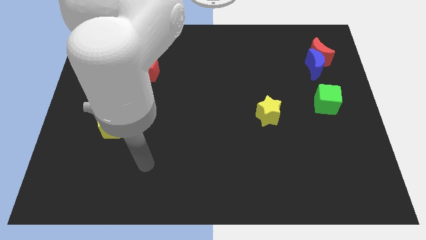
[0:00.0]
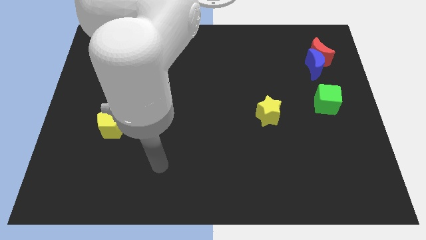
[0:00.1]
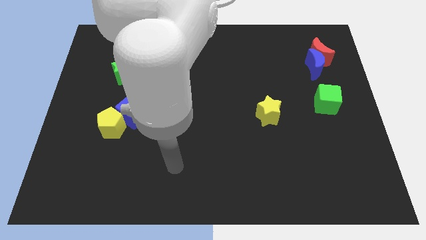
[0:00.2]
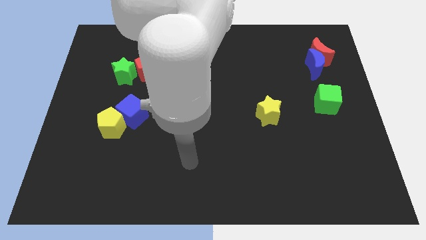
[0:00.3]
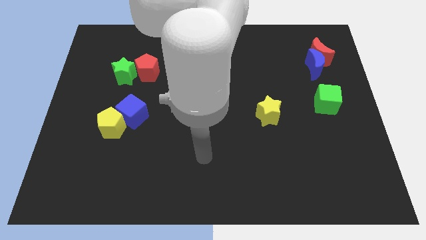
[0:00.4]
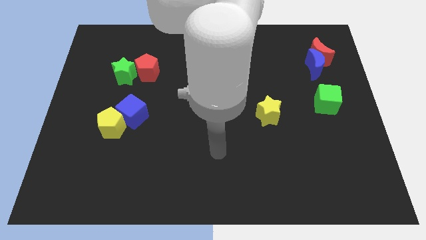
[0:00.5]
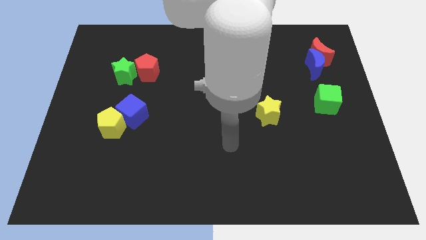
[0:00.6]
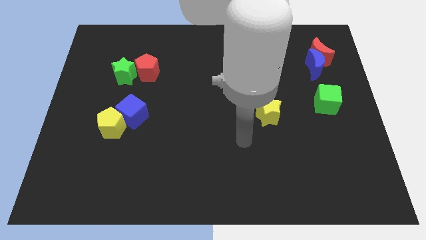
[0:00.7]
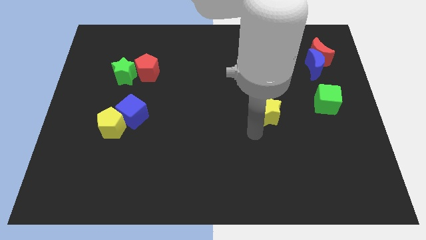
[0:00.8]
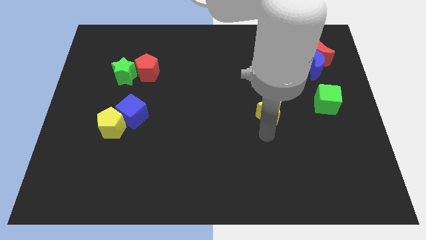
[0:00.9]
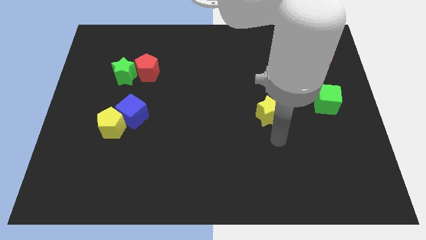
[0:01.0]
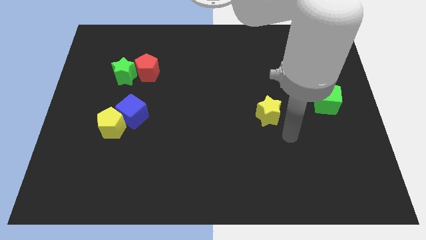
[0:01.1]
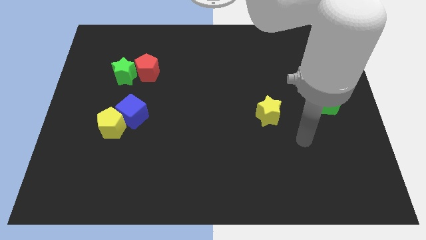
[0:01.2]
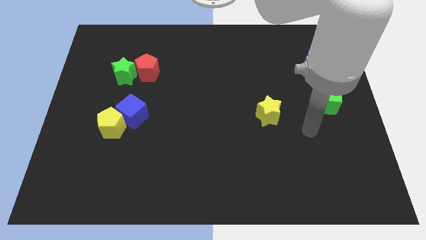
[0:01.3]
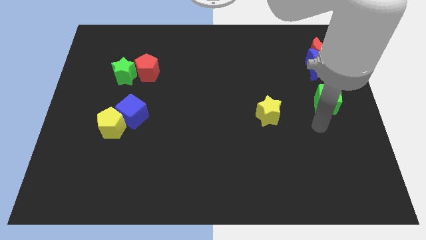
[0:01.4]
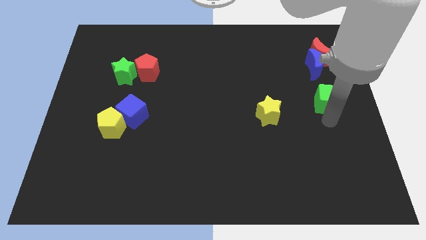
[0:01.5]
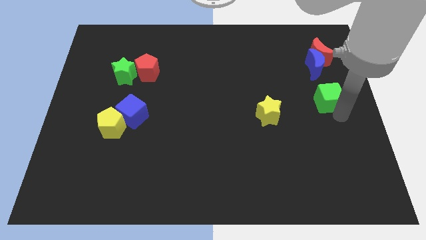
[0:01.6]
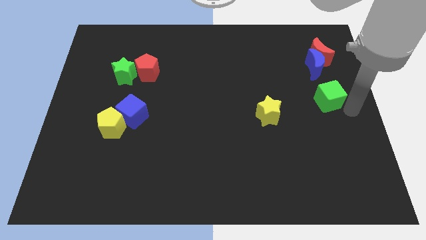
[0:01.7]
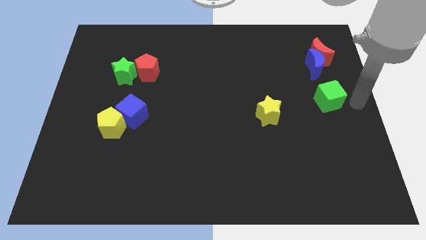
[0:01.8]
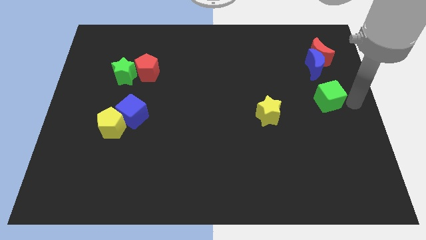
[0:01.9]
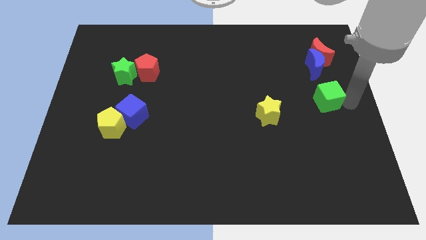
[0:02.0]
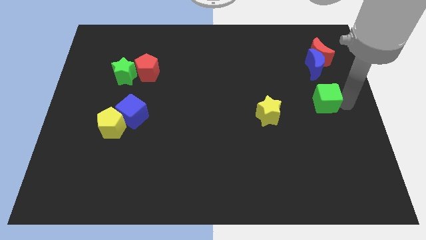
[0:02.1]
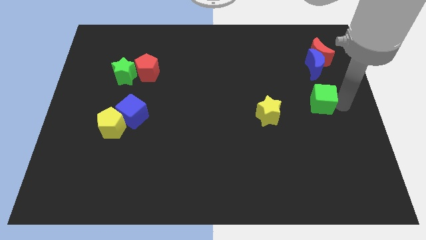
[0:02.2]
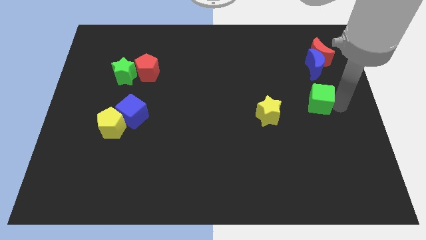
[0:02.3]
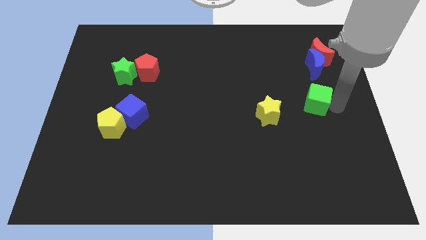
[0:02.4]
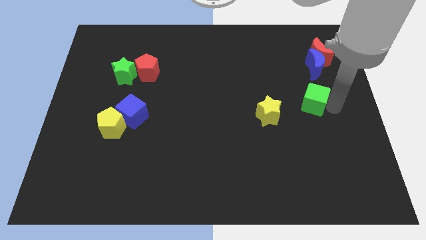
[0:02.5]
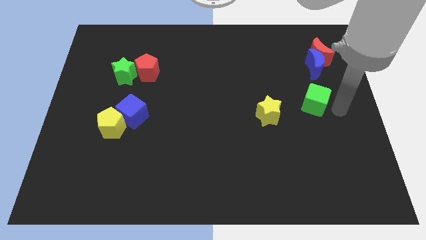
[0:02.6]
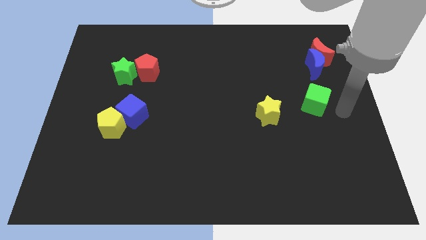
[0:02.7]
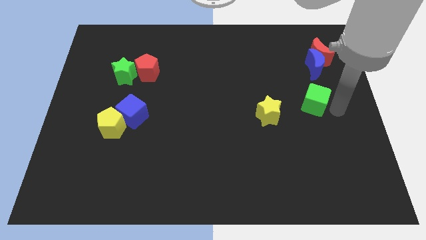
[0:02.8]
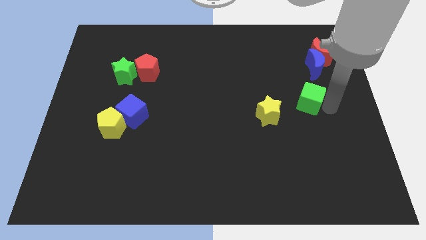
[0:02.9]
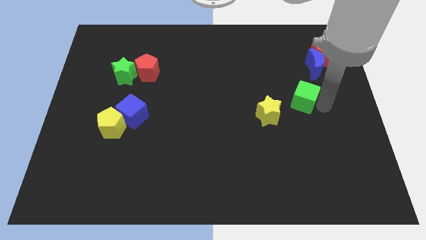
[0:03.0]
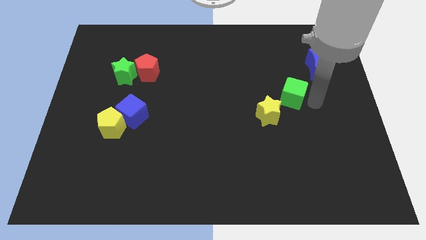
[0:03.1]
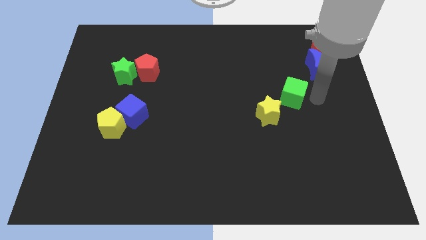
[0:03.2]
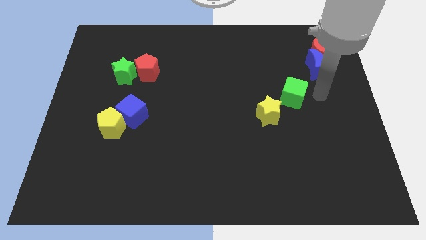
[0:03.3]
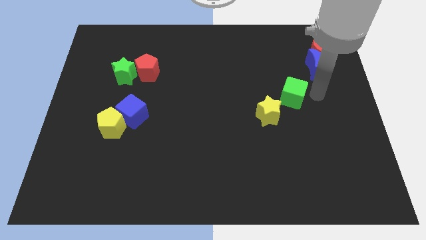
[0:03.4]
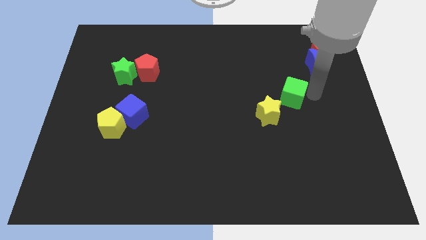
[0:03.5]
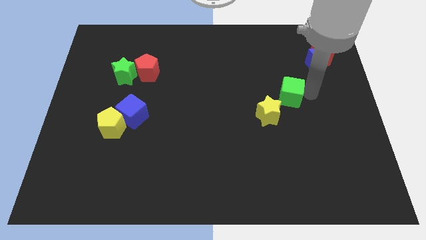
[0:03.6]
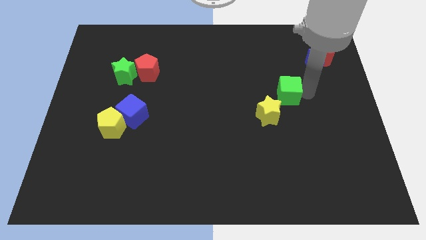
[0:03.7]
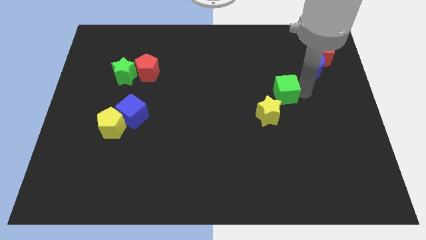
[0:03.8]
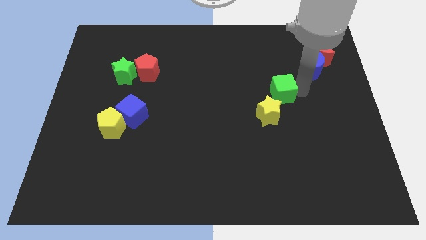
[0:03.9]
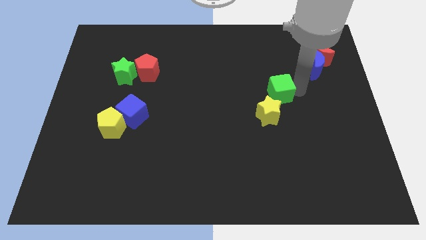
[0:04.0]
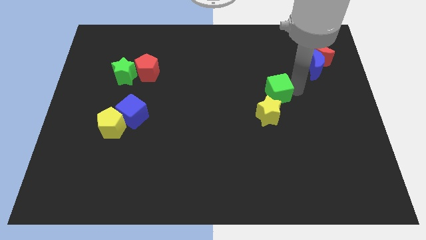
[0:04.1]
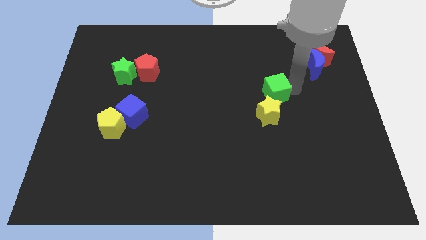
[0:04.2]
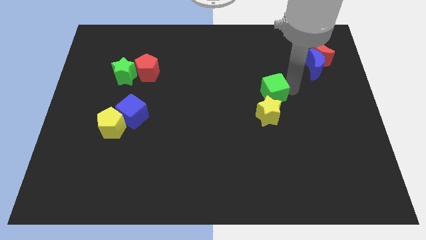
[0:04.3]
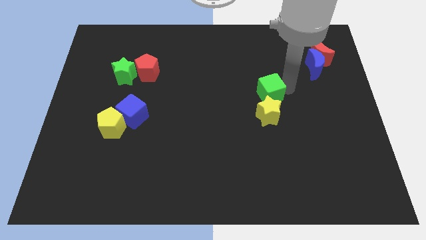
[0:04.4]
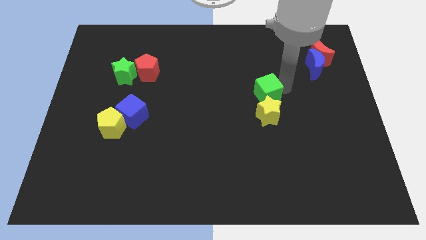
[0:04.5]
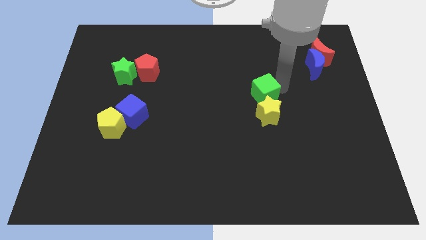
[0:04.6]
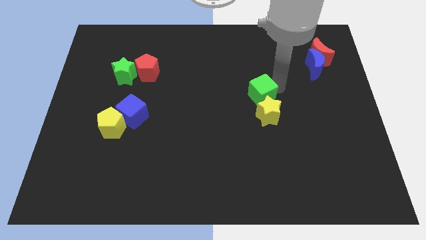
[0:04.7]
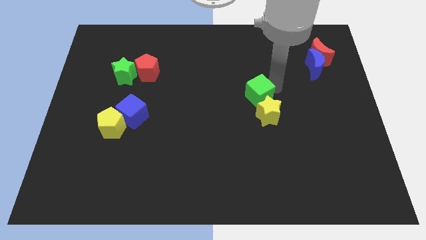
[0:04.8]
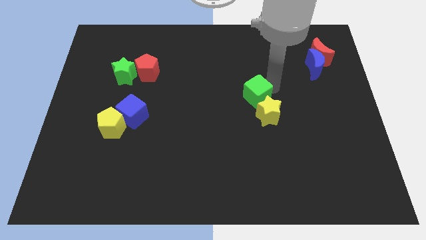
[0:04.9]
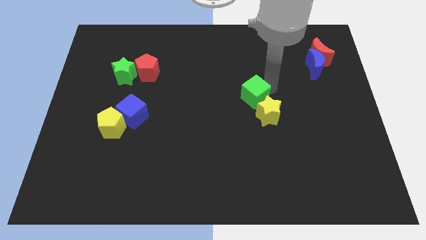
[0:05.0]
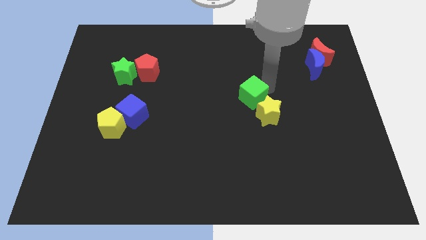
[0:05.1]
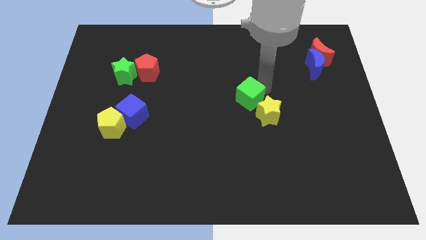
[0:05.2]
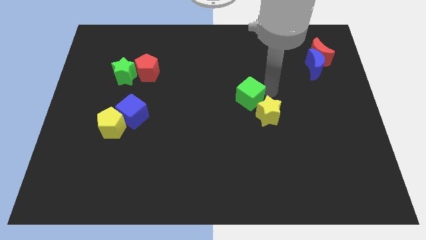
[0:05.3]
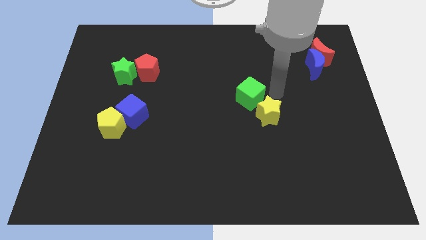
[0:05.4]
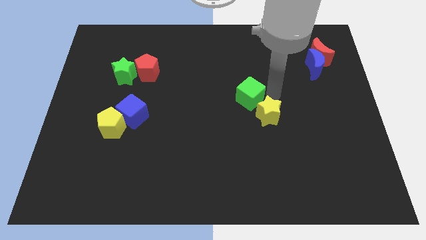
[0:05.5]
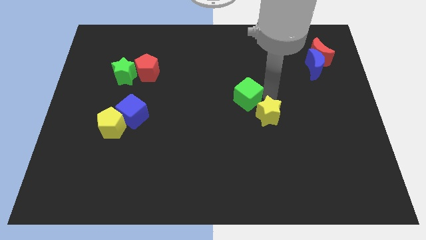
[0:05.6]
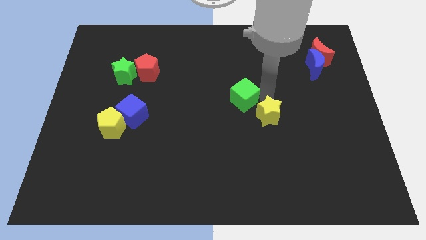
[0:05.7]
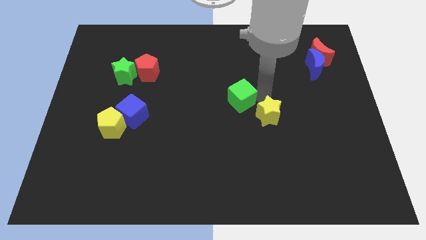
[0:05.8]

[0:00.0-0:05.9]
slide the green cube left

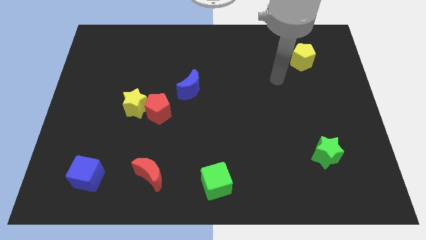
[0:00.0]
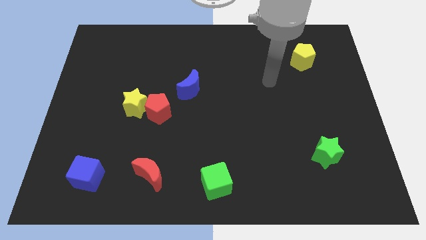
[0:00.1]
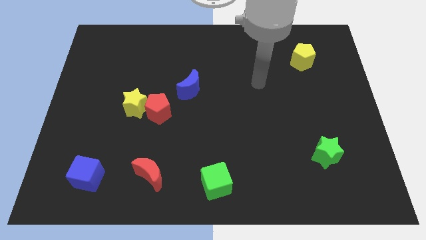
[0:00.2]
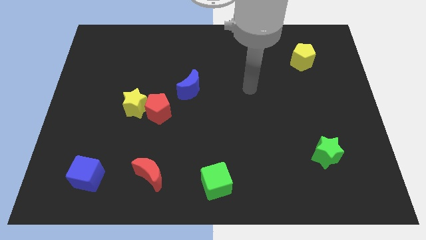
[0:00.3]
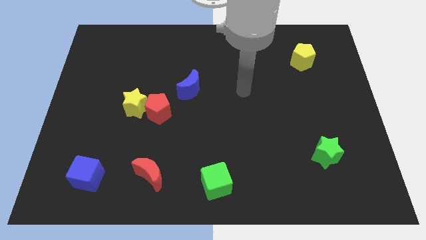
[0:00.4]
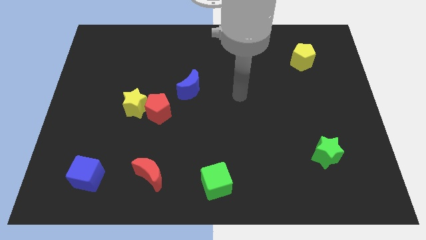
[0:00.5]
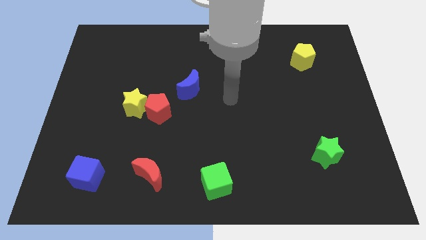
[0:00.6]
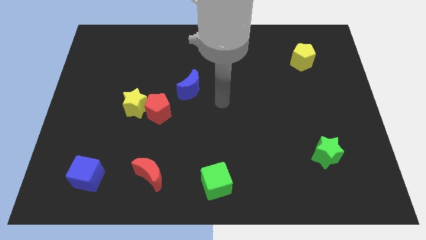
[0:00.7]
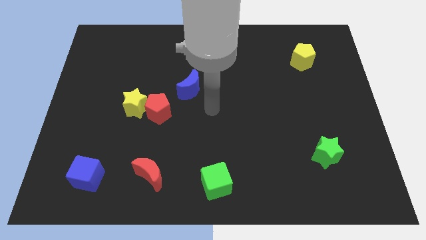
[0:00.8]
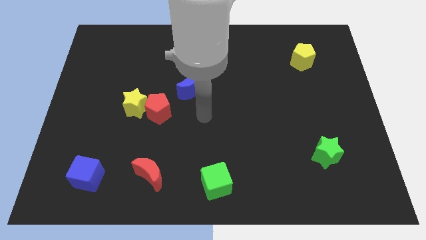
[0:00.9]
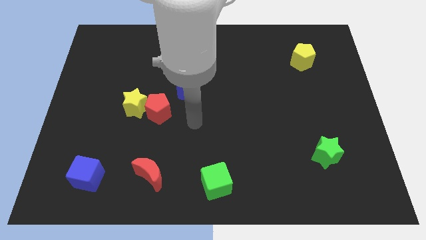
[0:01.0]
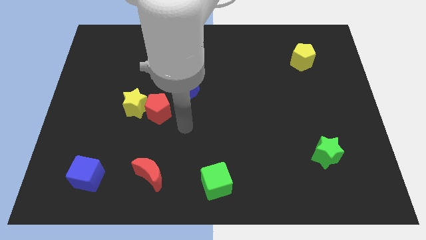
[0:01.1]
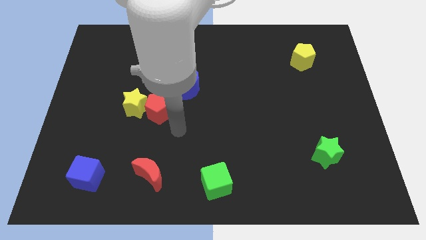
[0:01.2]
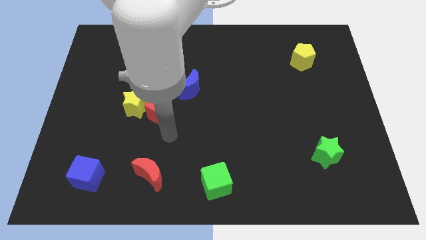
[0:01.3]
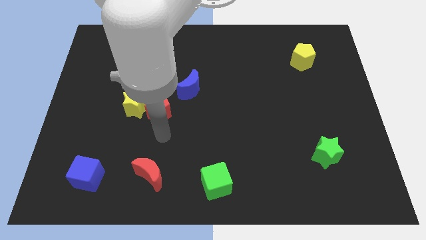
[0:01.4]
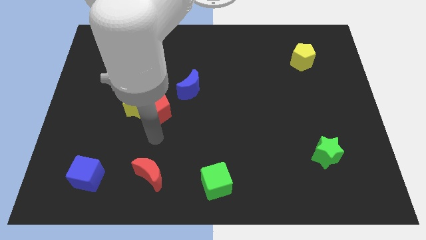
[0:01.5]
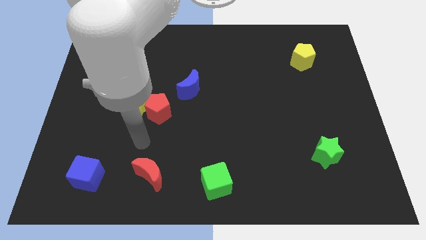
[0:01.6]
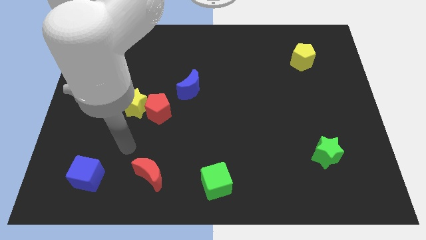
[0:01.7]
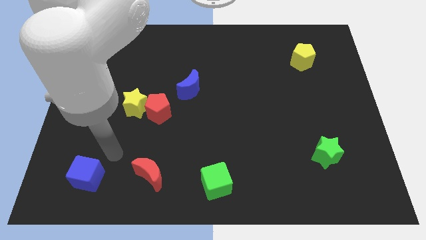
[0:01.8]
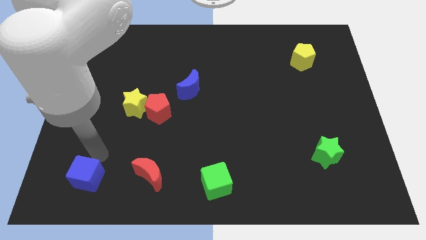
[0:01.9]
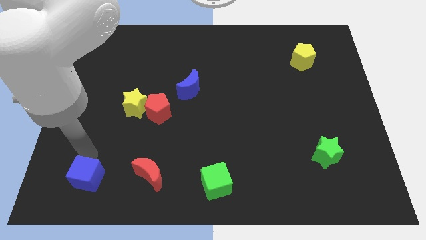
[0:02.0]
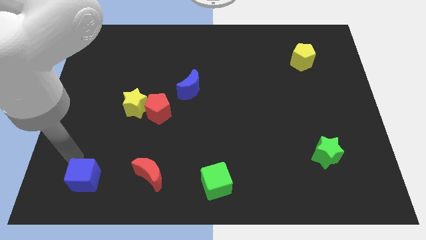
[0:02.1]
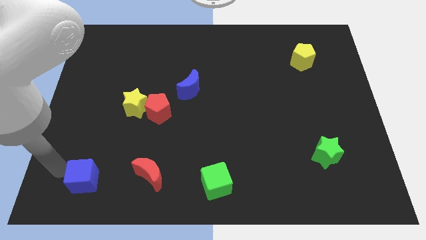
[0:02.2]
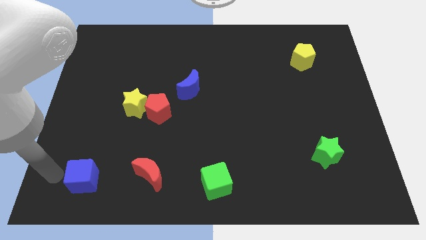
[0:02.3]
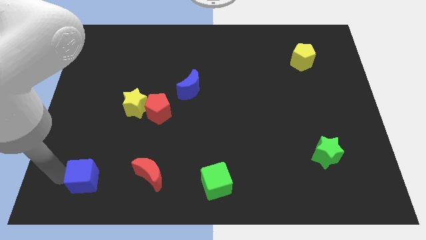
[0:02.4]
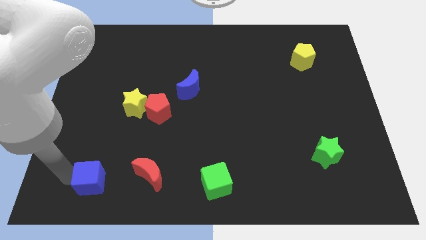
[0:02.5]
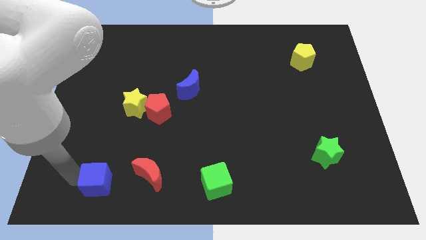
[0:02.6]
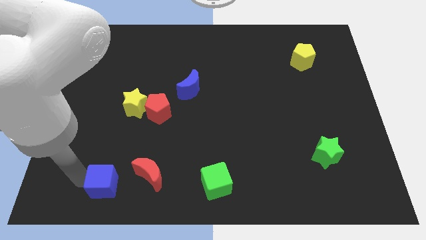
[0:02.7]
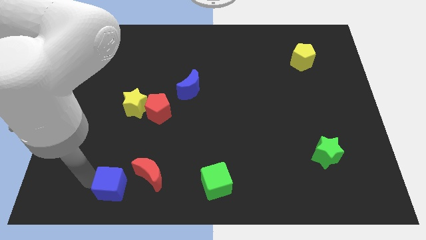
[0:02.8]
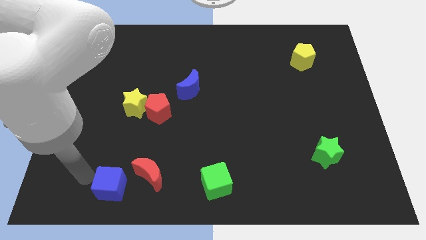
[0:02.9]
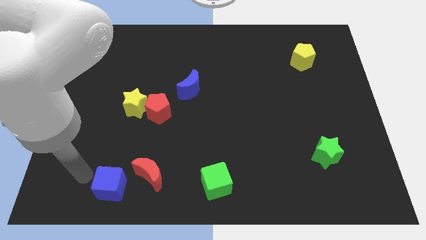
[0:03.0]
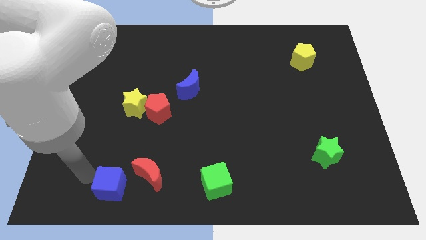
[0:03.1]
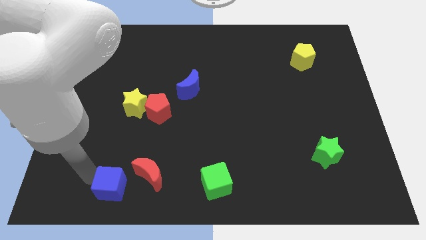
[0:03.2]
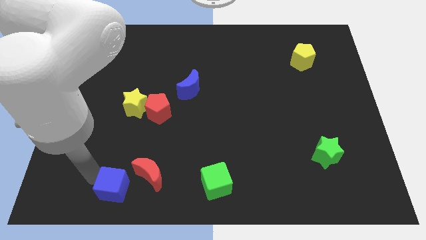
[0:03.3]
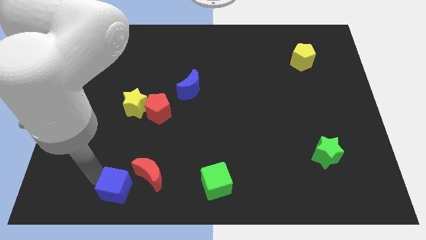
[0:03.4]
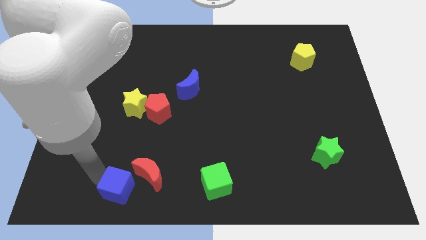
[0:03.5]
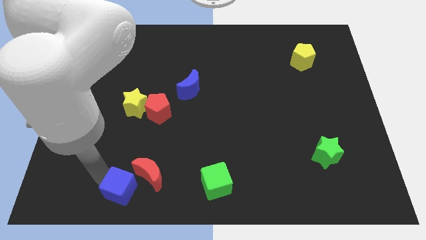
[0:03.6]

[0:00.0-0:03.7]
push the blue cube right somewhat
